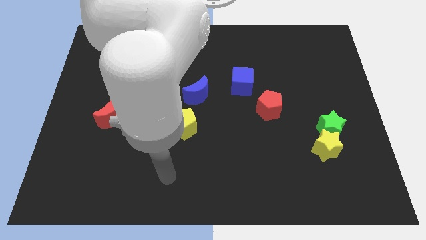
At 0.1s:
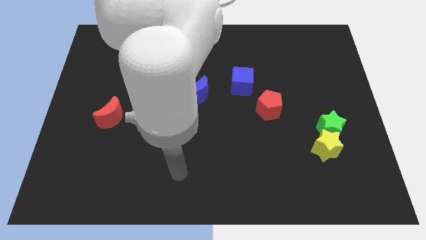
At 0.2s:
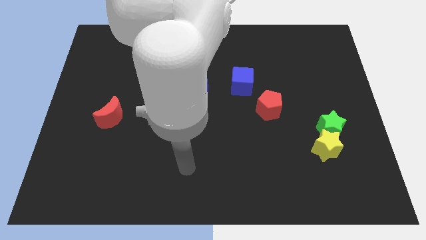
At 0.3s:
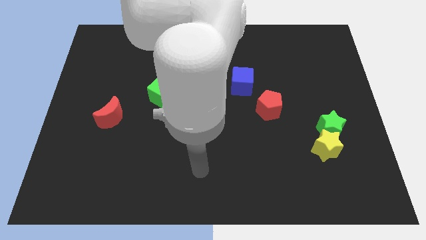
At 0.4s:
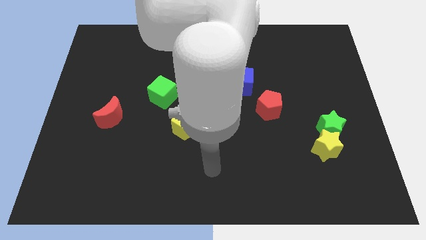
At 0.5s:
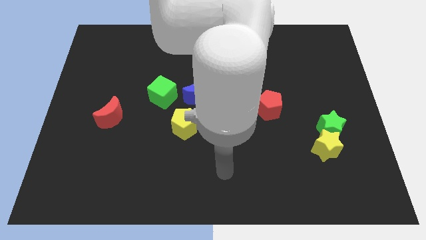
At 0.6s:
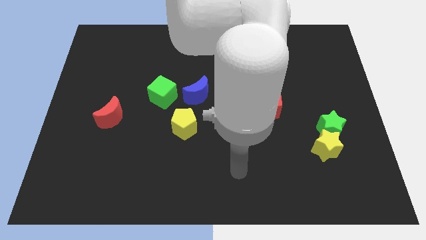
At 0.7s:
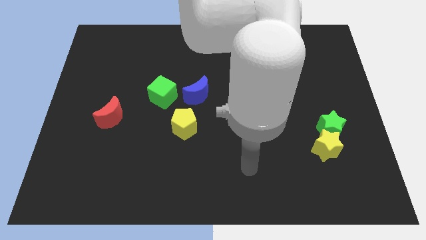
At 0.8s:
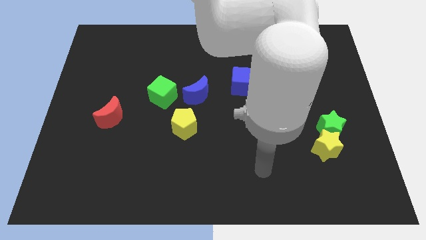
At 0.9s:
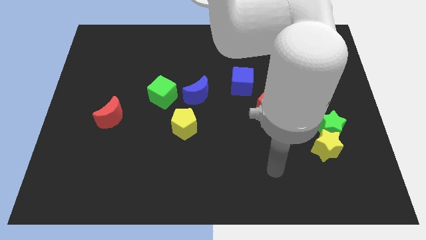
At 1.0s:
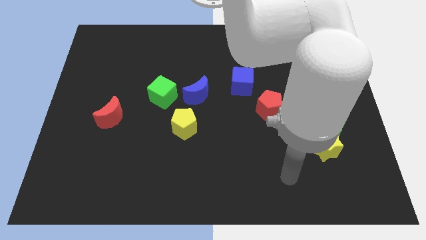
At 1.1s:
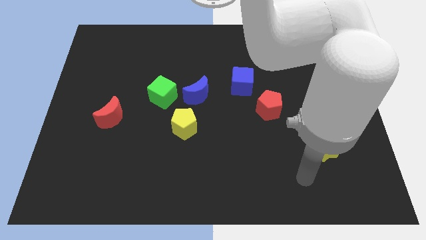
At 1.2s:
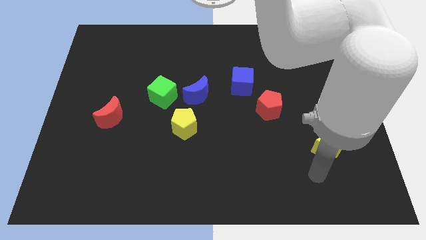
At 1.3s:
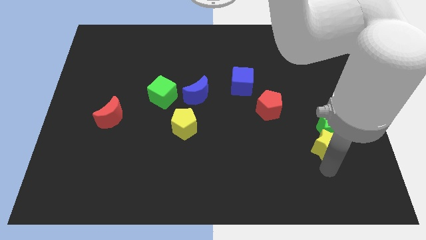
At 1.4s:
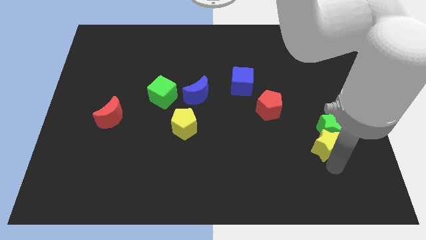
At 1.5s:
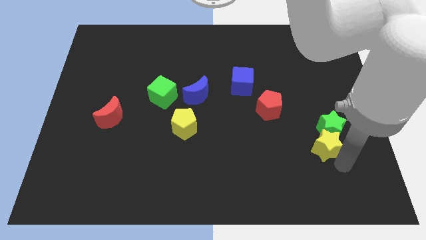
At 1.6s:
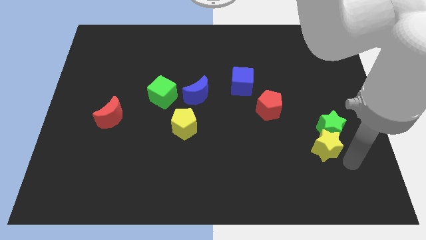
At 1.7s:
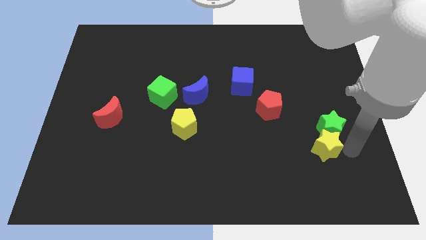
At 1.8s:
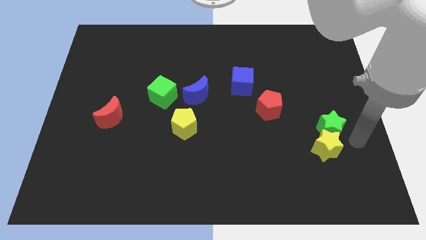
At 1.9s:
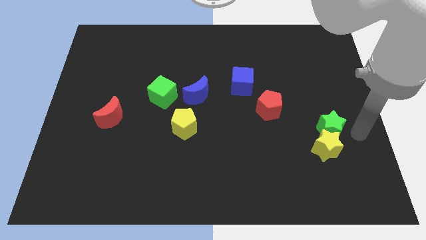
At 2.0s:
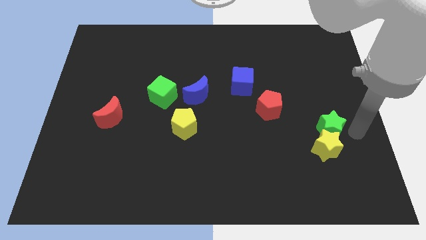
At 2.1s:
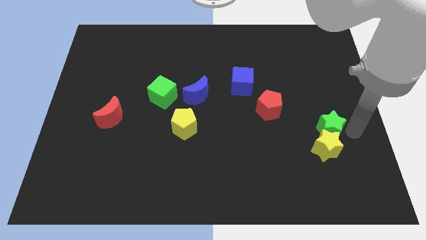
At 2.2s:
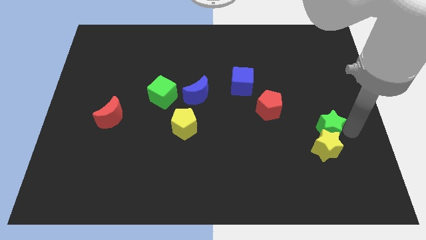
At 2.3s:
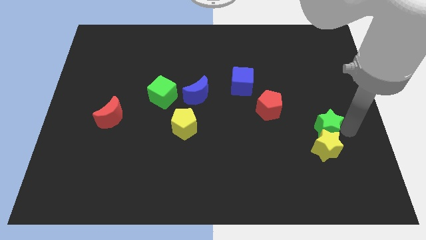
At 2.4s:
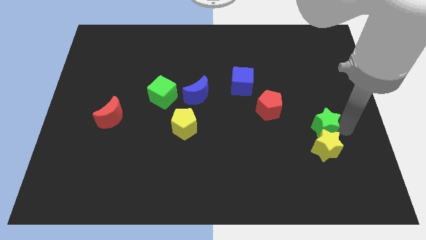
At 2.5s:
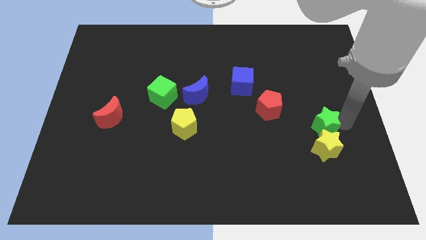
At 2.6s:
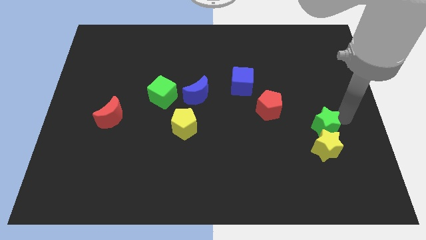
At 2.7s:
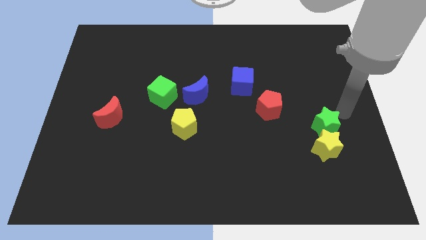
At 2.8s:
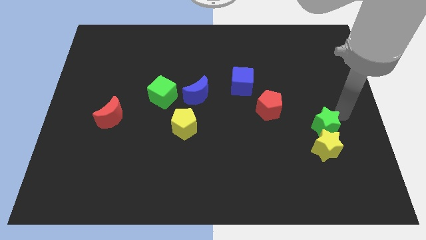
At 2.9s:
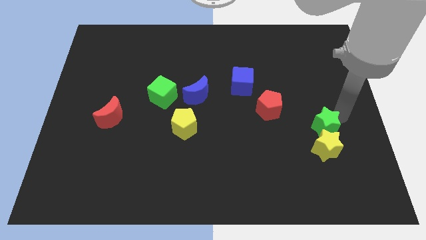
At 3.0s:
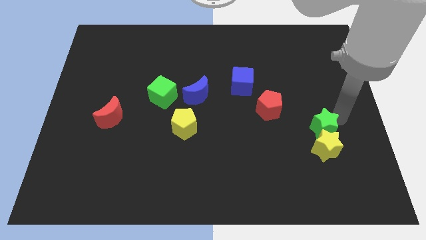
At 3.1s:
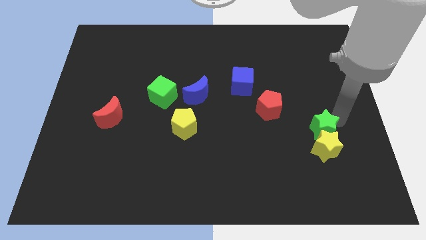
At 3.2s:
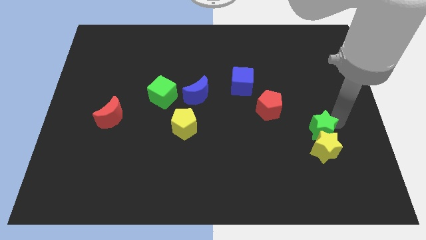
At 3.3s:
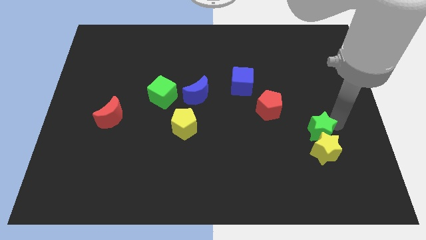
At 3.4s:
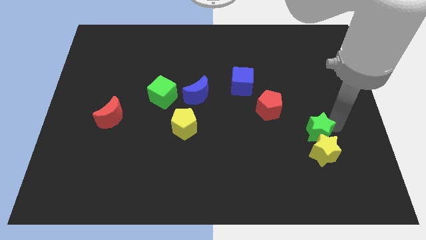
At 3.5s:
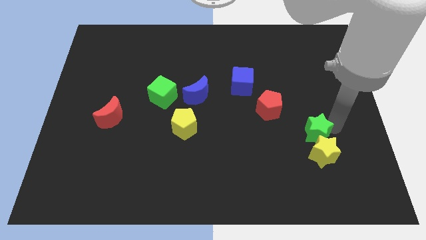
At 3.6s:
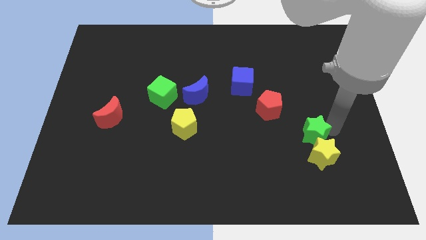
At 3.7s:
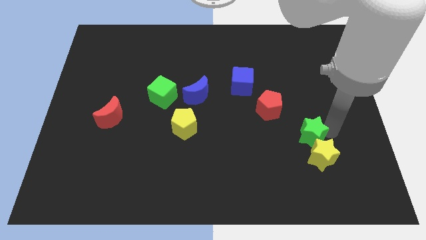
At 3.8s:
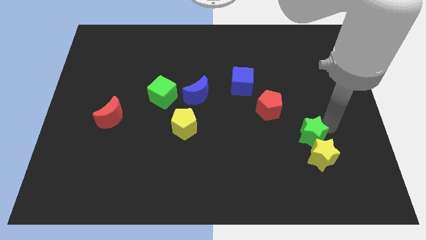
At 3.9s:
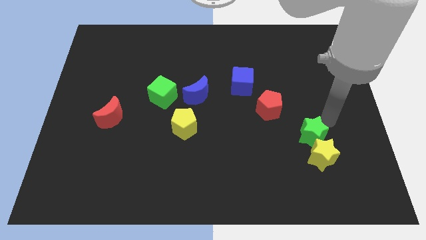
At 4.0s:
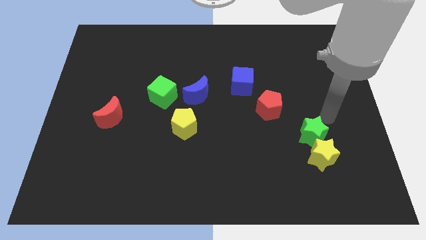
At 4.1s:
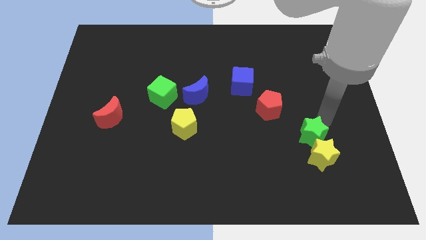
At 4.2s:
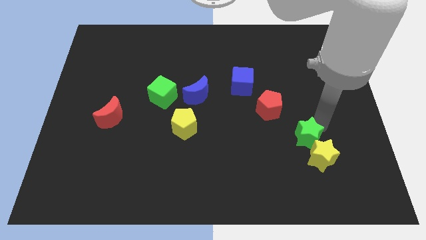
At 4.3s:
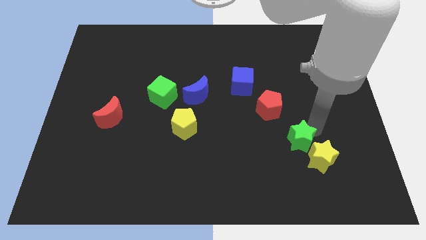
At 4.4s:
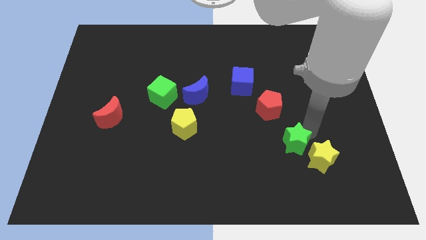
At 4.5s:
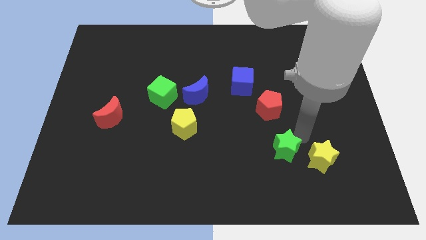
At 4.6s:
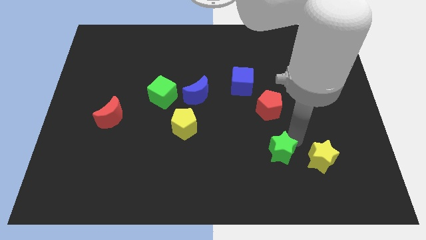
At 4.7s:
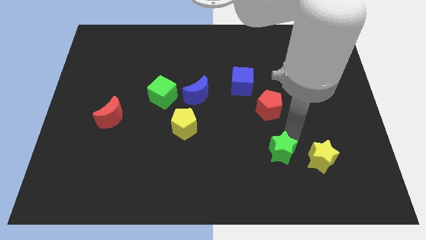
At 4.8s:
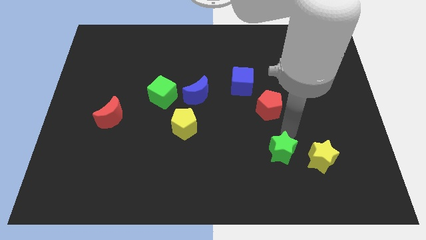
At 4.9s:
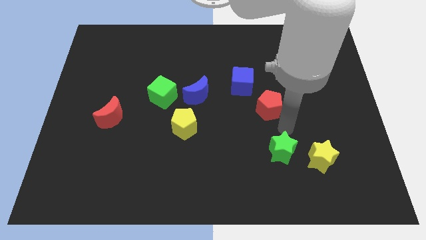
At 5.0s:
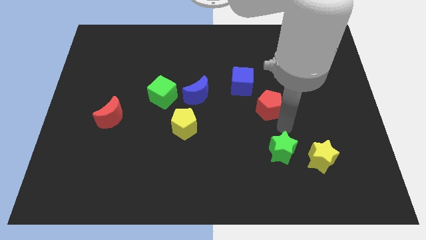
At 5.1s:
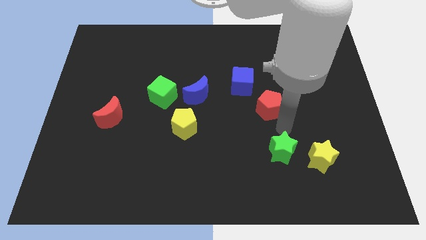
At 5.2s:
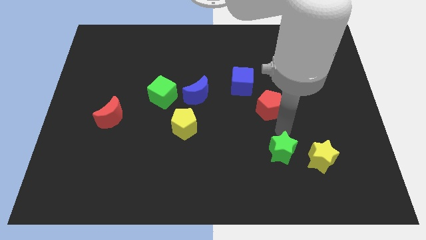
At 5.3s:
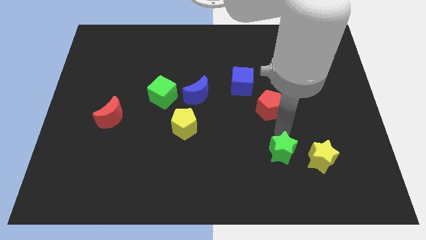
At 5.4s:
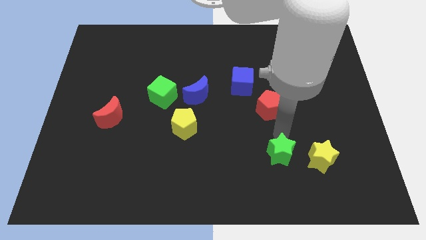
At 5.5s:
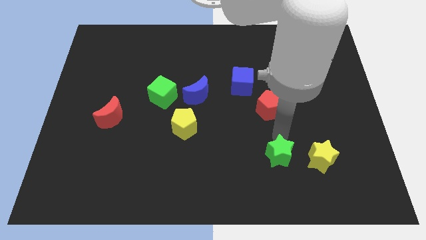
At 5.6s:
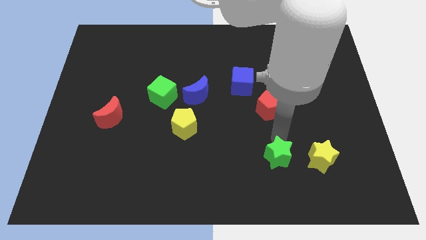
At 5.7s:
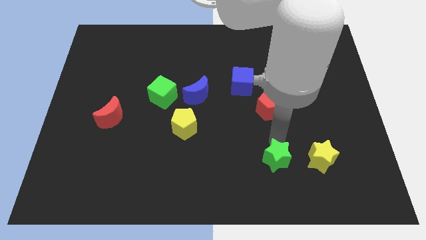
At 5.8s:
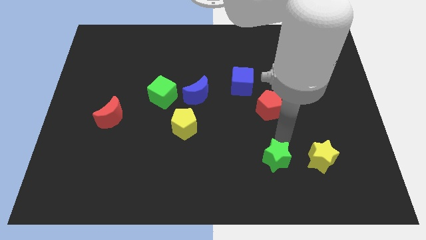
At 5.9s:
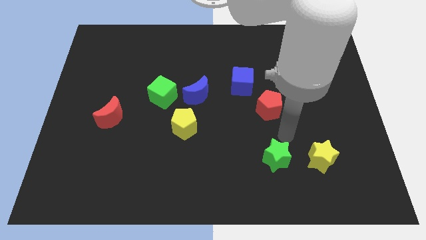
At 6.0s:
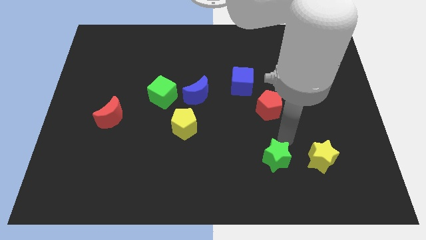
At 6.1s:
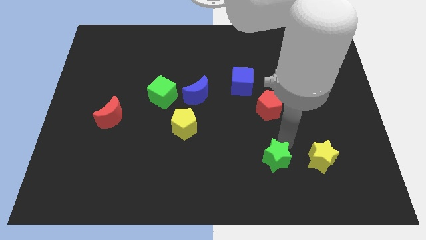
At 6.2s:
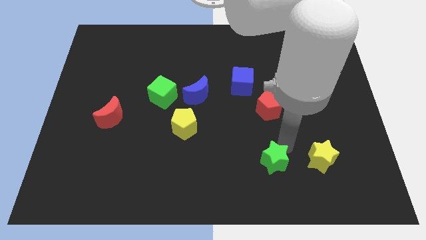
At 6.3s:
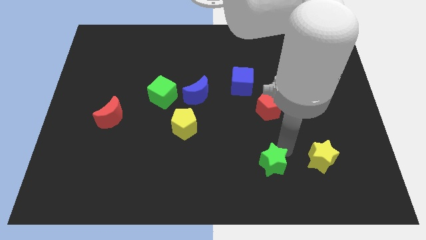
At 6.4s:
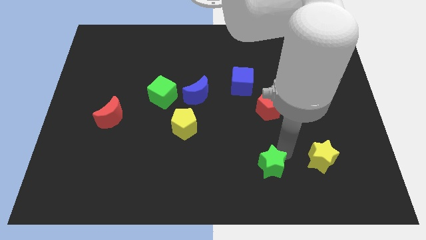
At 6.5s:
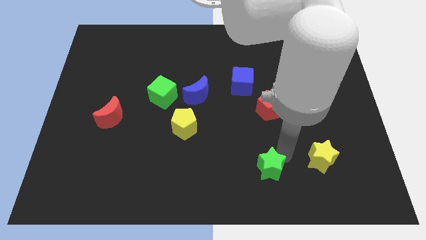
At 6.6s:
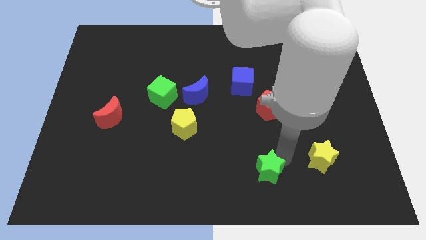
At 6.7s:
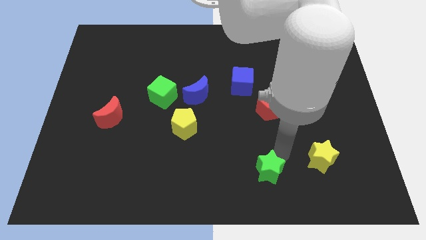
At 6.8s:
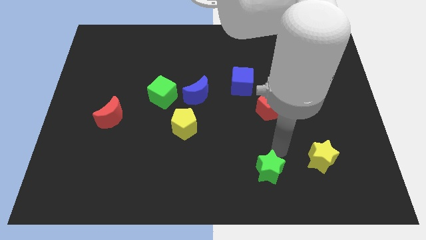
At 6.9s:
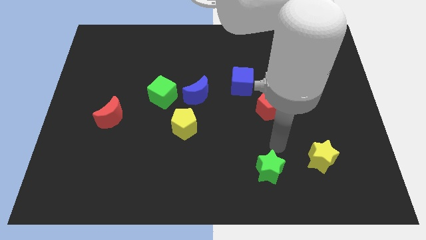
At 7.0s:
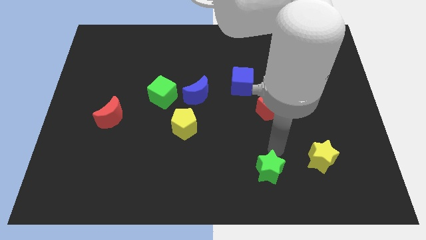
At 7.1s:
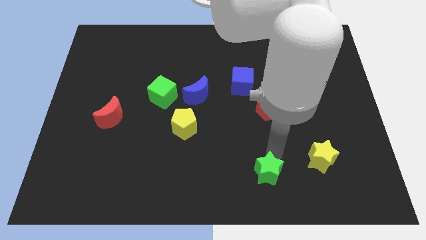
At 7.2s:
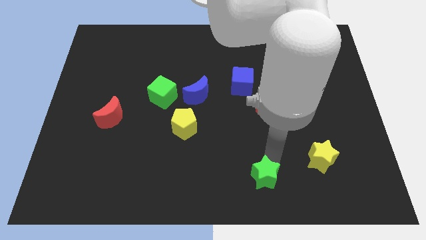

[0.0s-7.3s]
slide the green star to the bottom
